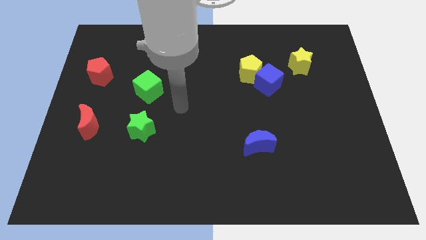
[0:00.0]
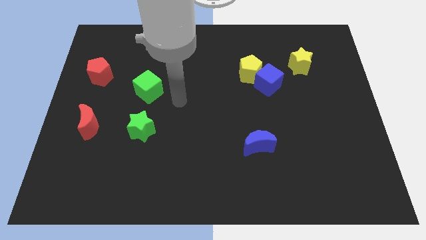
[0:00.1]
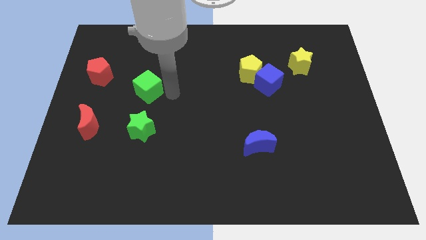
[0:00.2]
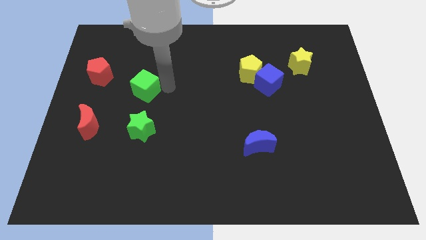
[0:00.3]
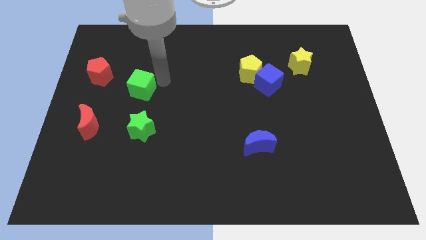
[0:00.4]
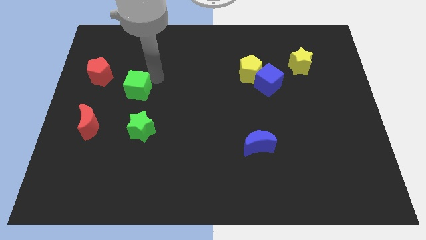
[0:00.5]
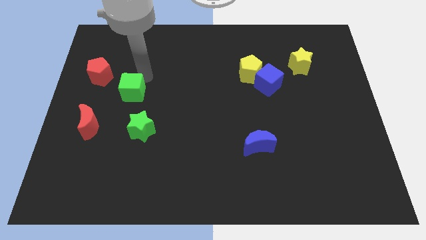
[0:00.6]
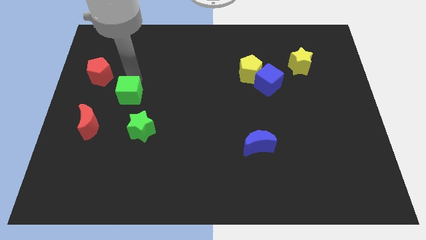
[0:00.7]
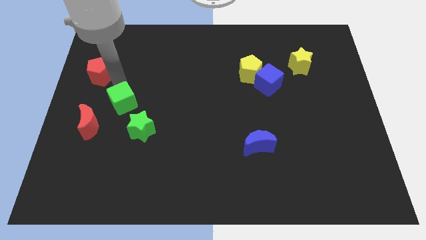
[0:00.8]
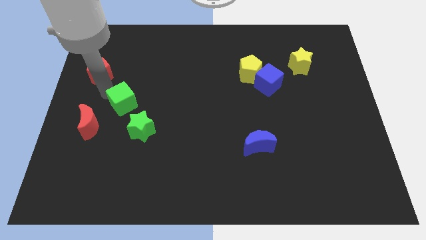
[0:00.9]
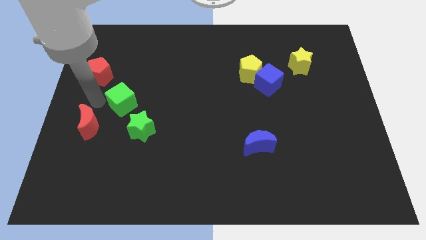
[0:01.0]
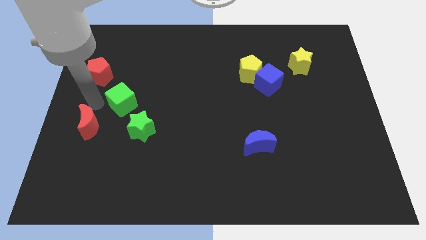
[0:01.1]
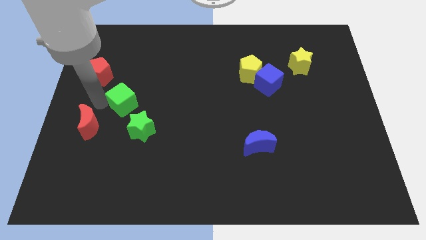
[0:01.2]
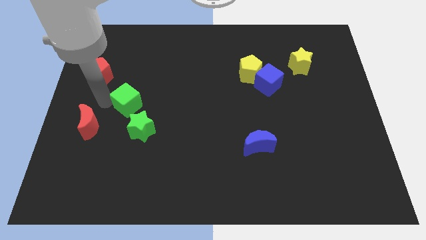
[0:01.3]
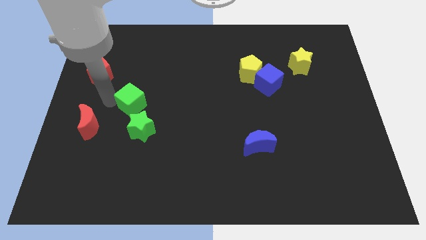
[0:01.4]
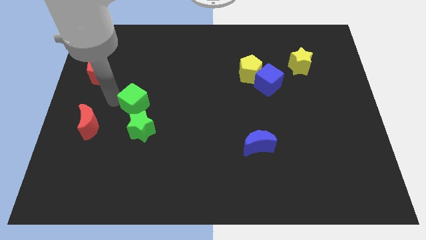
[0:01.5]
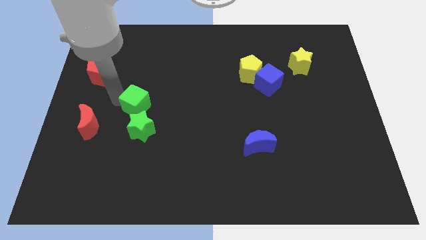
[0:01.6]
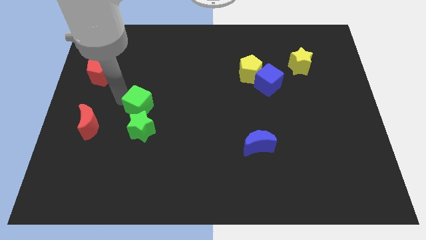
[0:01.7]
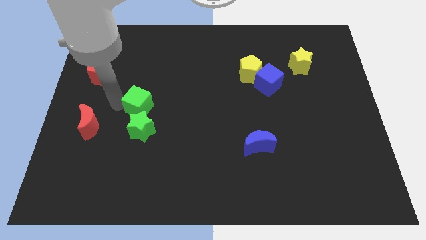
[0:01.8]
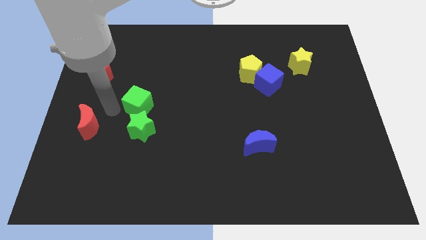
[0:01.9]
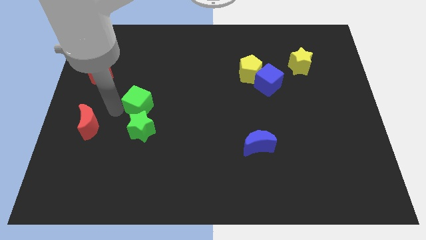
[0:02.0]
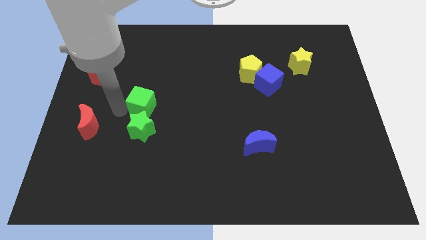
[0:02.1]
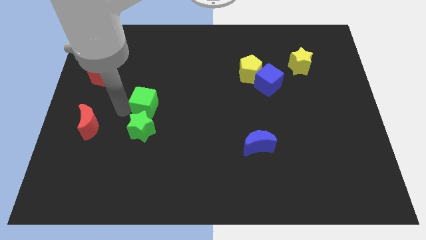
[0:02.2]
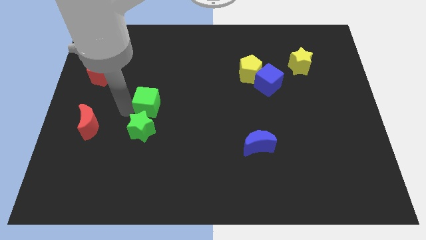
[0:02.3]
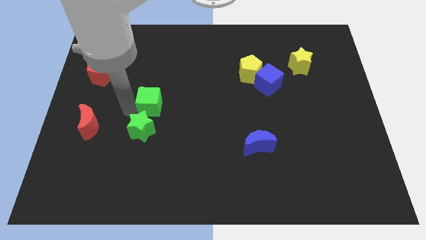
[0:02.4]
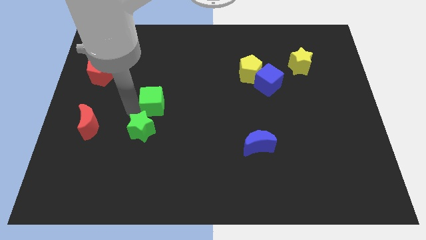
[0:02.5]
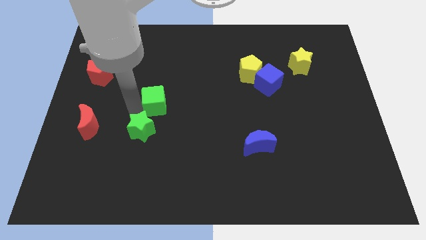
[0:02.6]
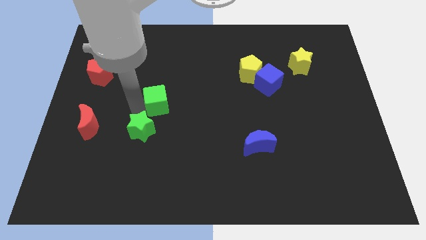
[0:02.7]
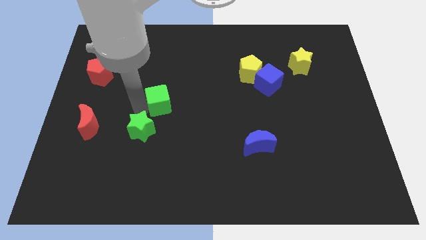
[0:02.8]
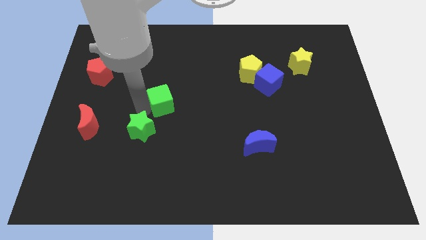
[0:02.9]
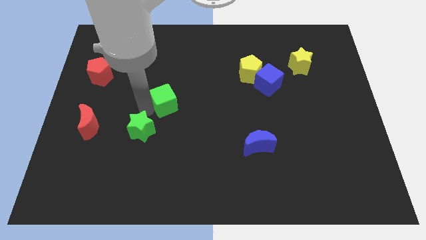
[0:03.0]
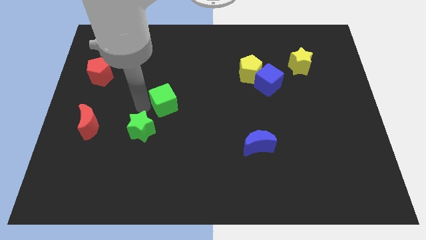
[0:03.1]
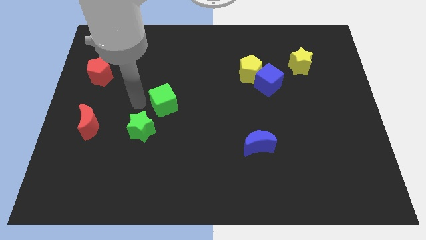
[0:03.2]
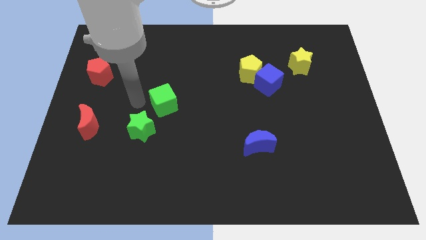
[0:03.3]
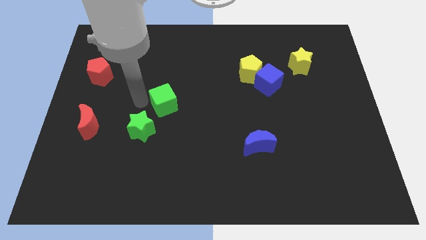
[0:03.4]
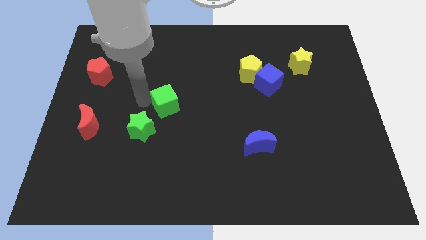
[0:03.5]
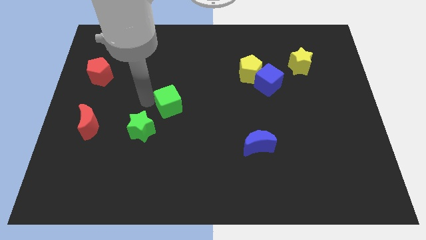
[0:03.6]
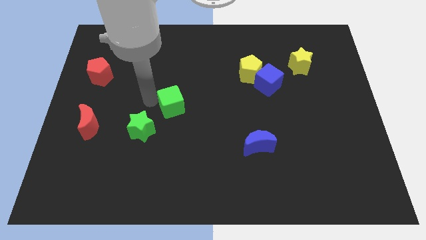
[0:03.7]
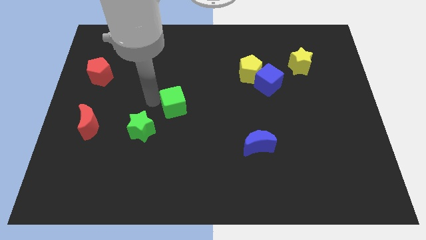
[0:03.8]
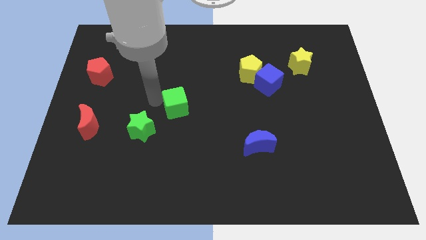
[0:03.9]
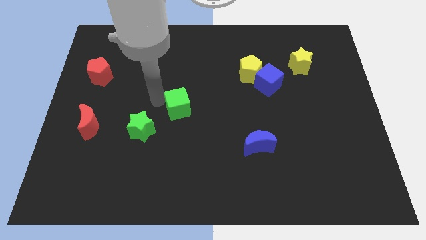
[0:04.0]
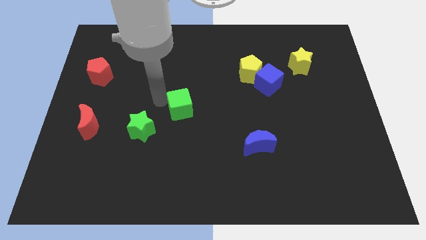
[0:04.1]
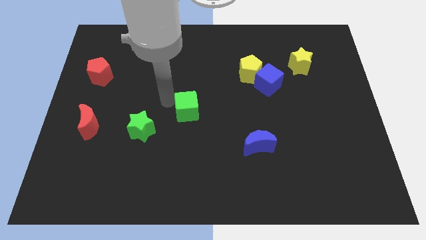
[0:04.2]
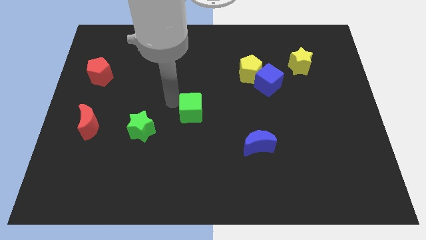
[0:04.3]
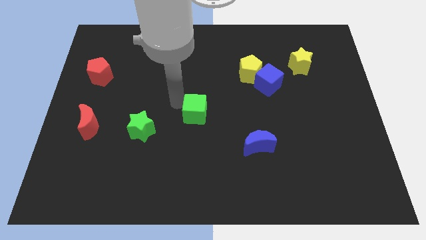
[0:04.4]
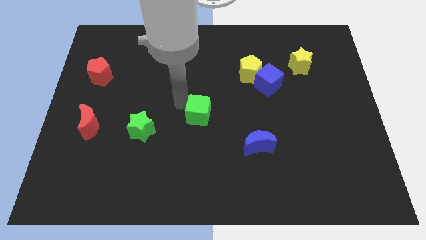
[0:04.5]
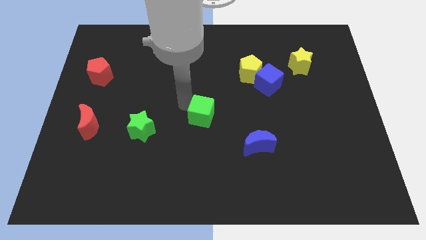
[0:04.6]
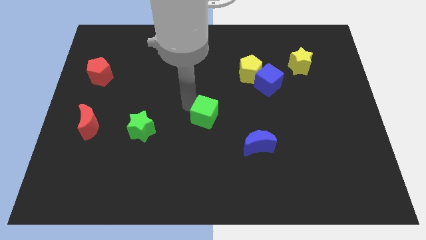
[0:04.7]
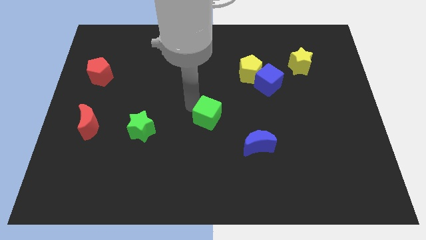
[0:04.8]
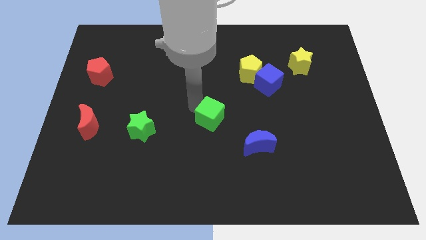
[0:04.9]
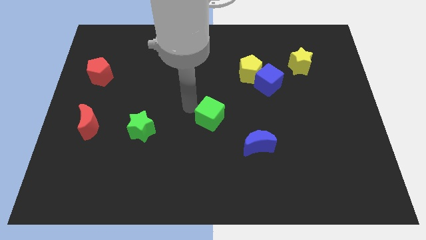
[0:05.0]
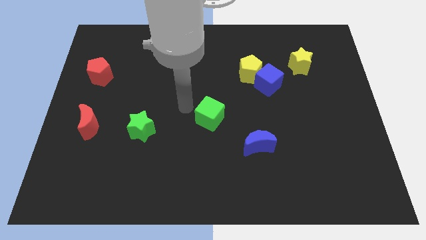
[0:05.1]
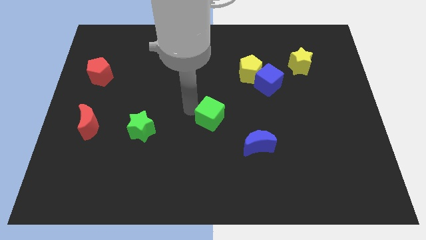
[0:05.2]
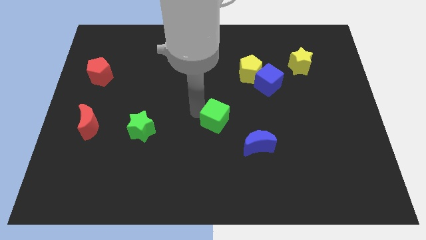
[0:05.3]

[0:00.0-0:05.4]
move the green cube diagonally up and to the left of the blue moon

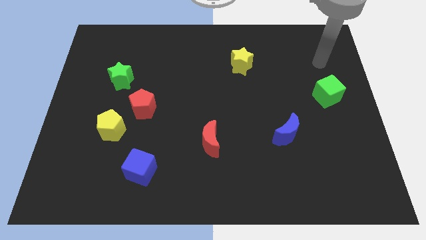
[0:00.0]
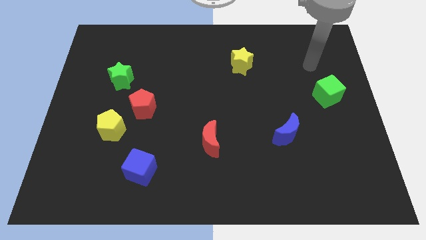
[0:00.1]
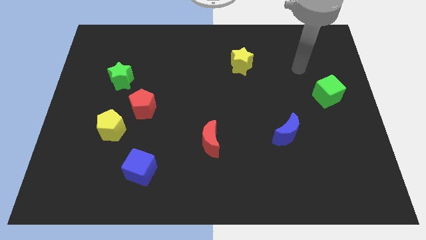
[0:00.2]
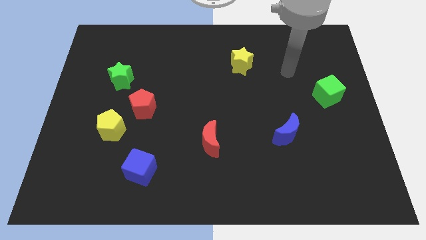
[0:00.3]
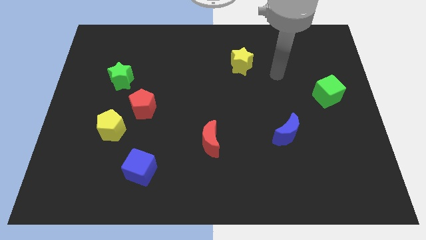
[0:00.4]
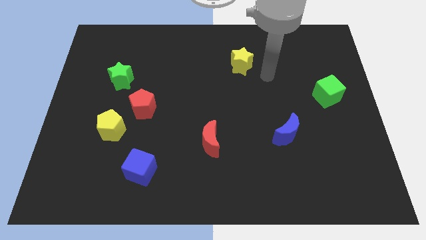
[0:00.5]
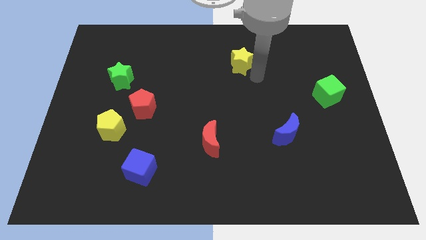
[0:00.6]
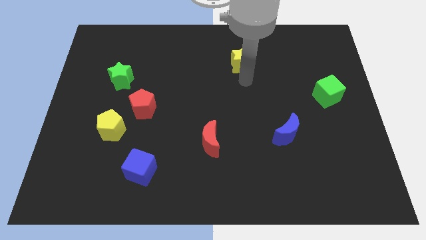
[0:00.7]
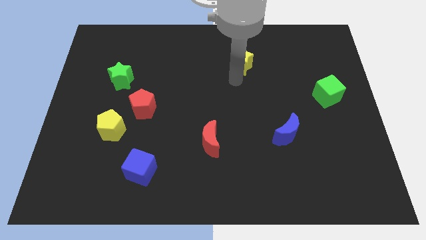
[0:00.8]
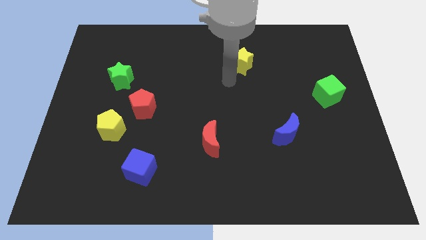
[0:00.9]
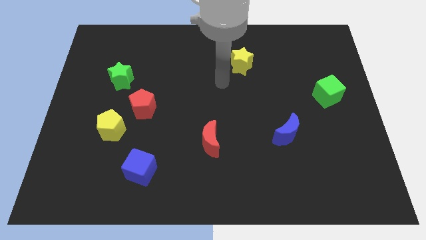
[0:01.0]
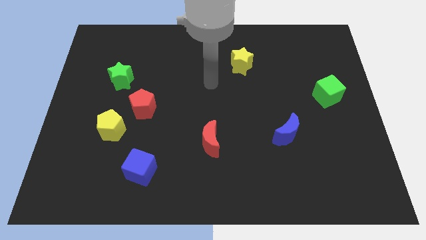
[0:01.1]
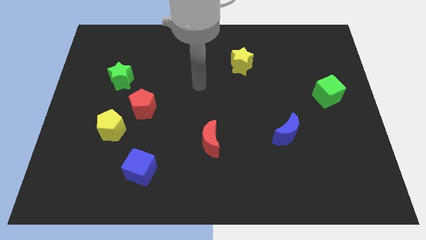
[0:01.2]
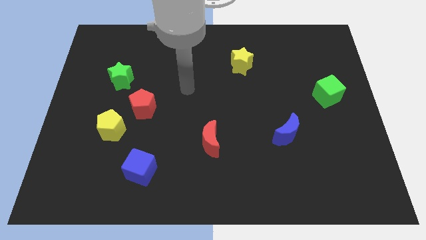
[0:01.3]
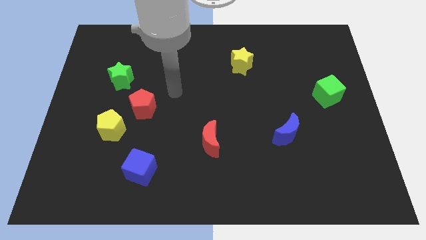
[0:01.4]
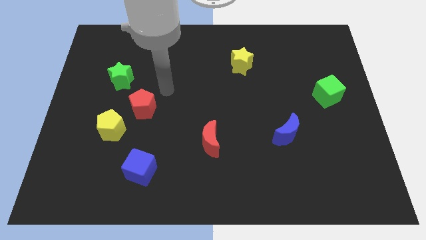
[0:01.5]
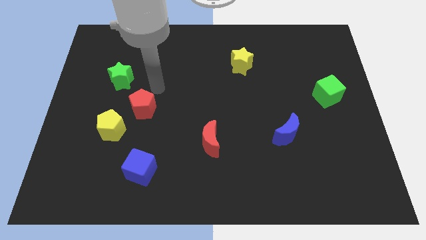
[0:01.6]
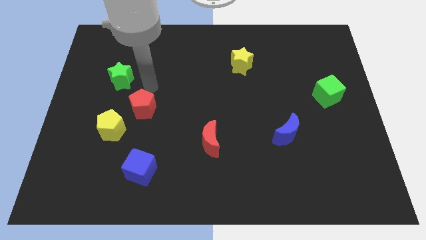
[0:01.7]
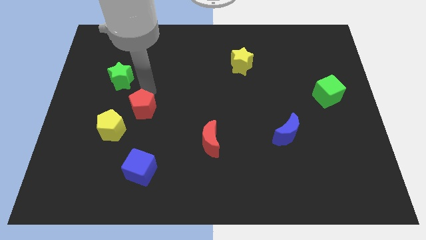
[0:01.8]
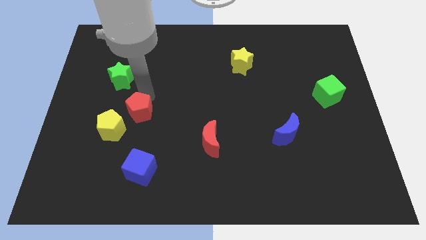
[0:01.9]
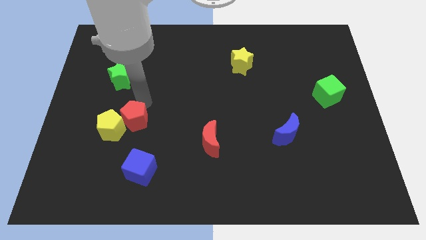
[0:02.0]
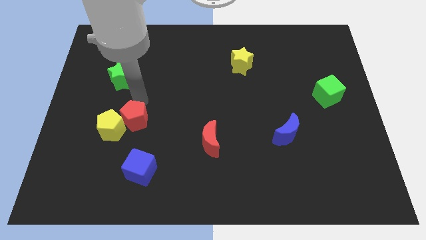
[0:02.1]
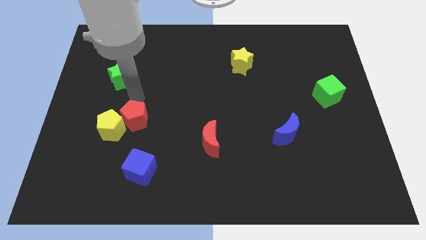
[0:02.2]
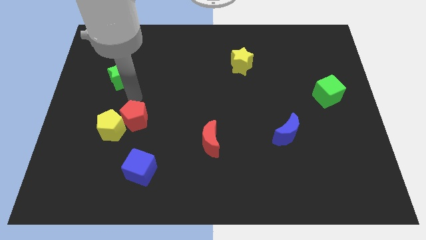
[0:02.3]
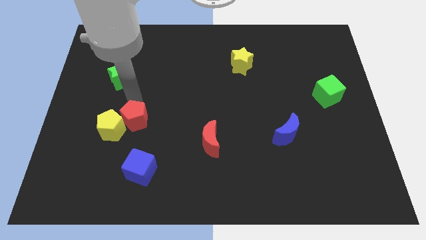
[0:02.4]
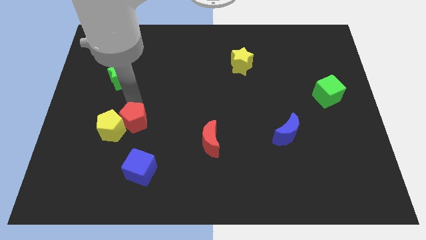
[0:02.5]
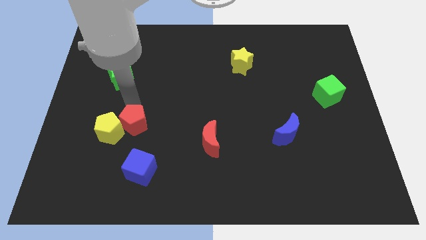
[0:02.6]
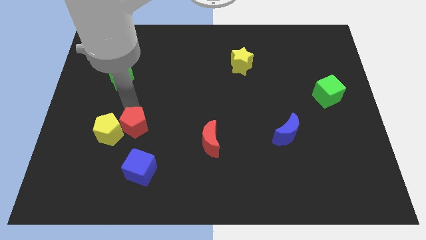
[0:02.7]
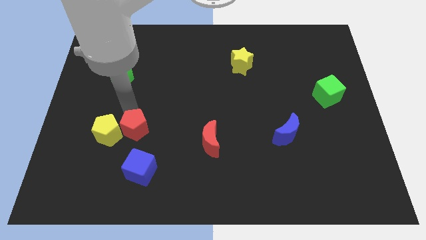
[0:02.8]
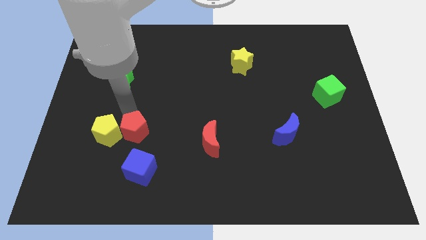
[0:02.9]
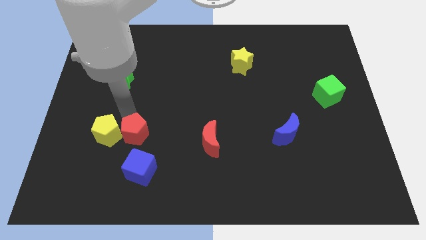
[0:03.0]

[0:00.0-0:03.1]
move the red pentagon to the top left of the blue cube
